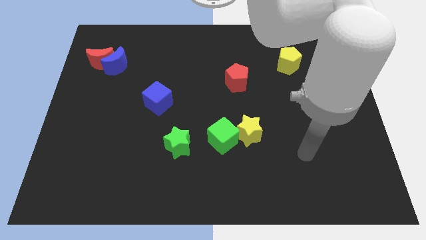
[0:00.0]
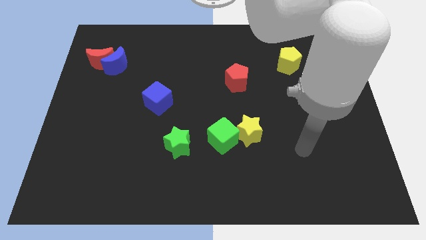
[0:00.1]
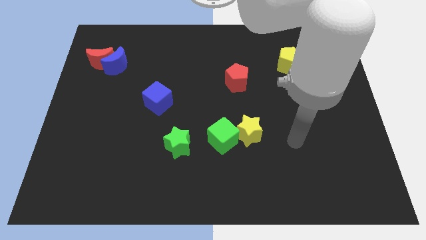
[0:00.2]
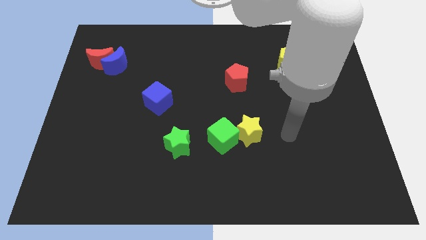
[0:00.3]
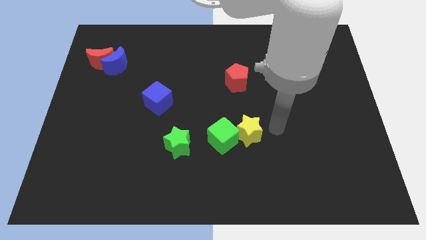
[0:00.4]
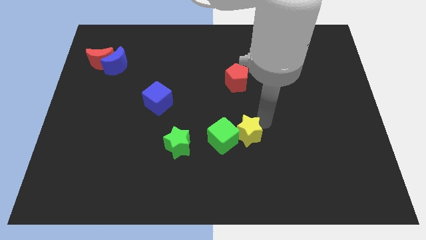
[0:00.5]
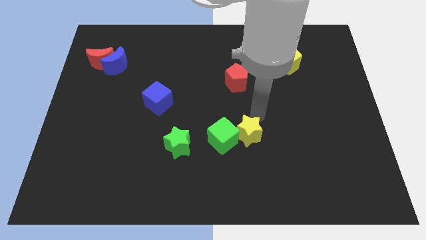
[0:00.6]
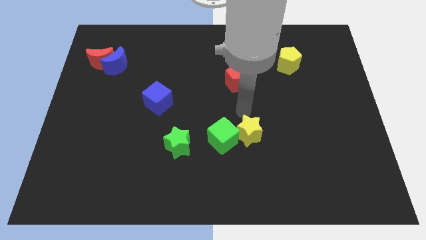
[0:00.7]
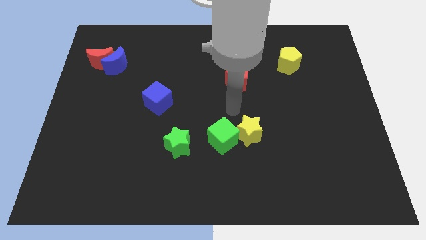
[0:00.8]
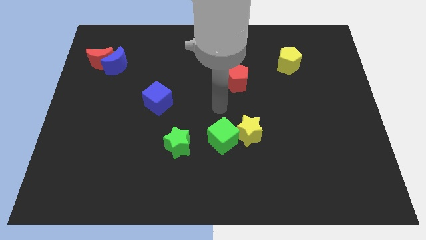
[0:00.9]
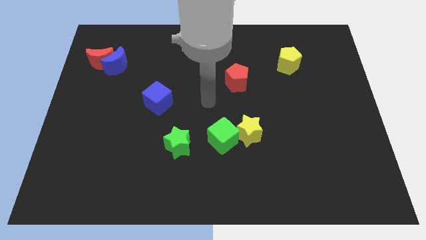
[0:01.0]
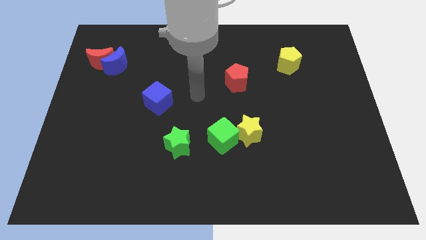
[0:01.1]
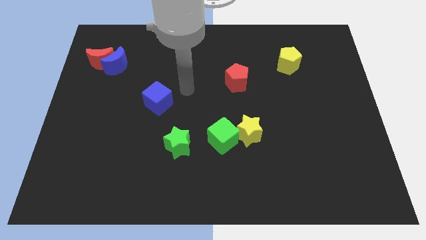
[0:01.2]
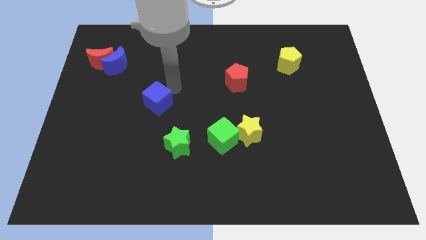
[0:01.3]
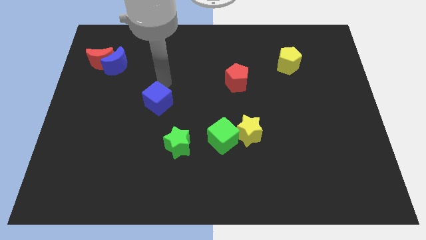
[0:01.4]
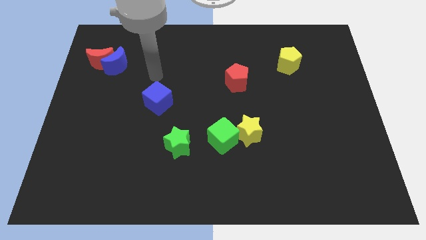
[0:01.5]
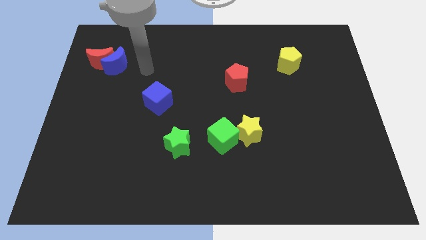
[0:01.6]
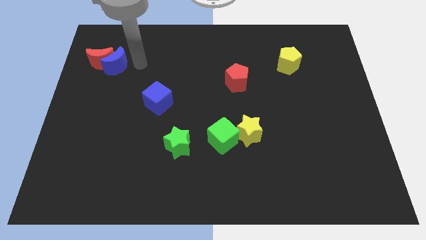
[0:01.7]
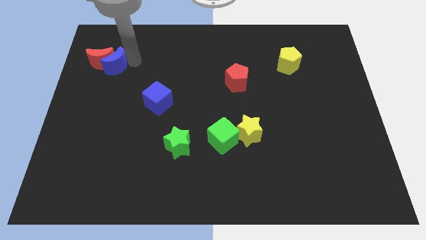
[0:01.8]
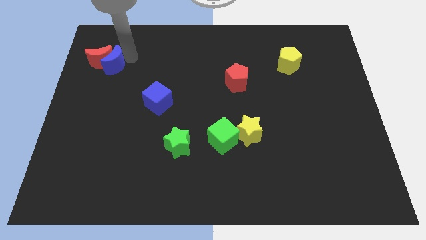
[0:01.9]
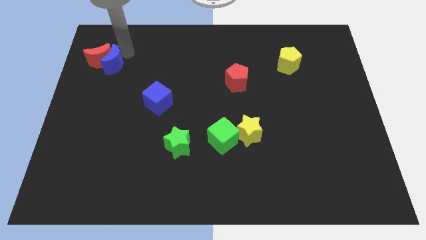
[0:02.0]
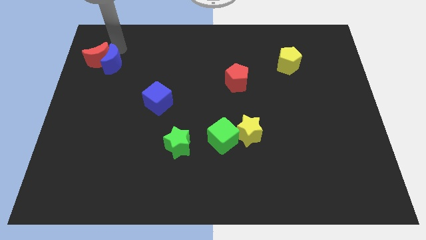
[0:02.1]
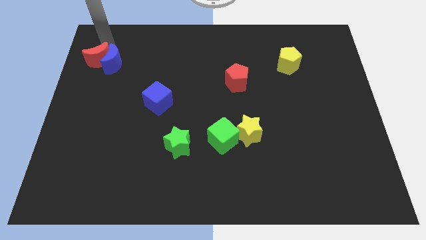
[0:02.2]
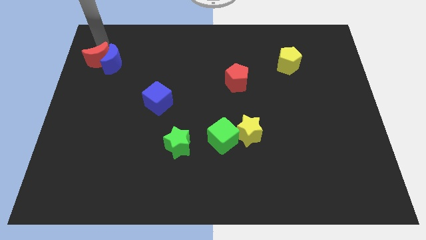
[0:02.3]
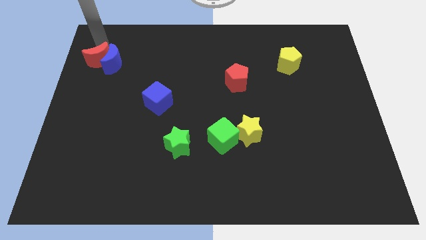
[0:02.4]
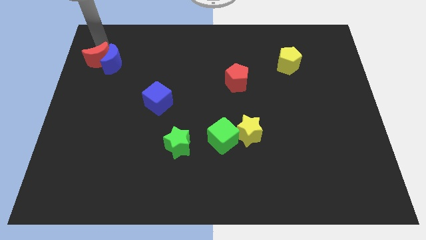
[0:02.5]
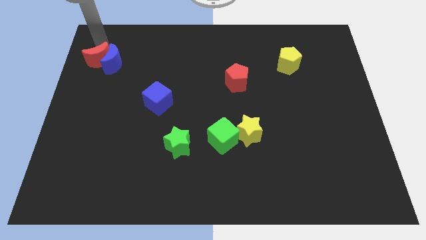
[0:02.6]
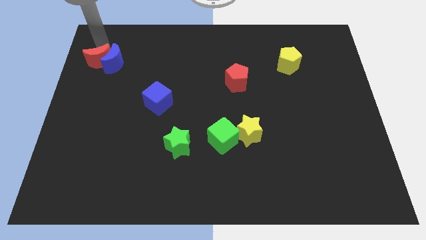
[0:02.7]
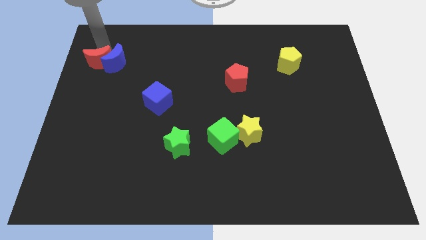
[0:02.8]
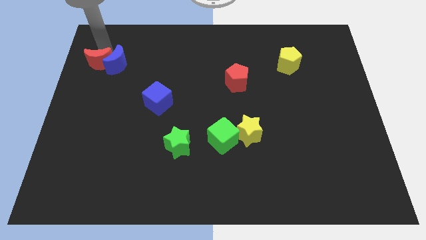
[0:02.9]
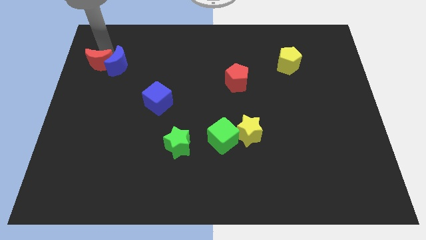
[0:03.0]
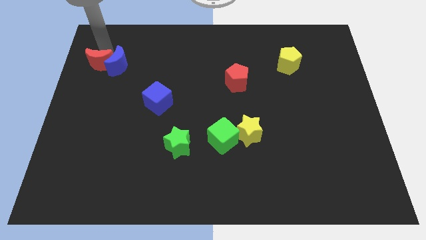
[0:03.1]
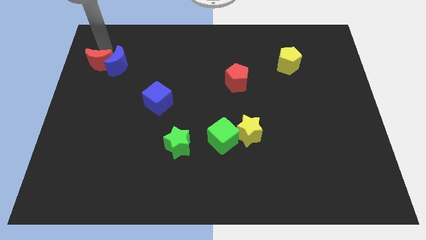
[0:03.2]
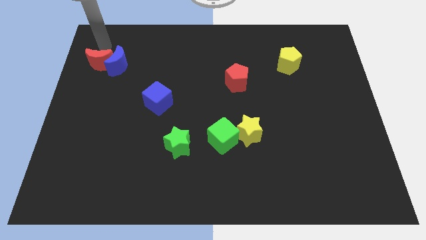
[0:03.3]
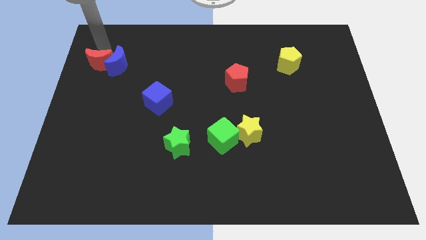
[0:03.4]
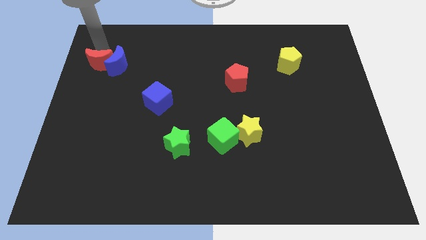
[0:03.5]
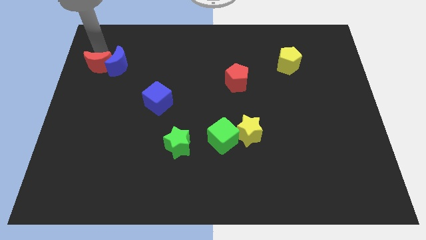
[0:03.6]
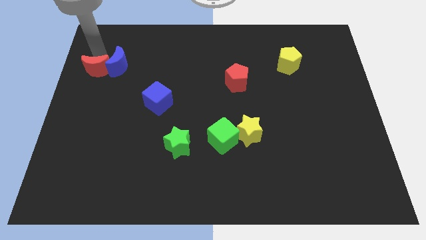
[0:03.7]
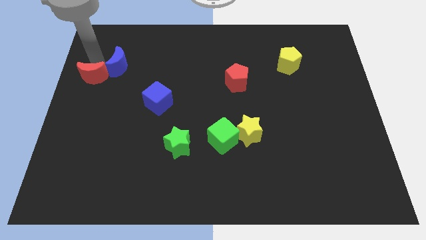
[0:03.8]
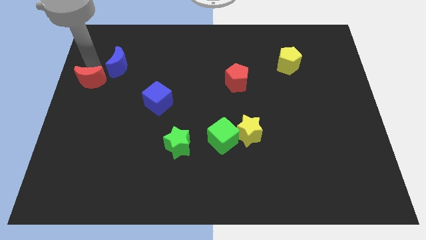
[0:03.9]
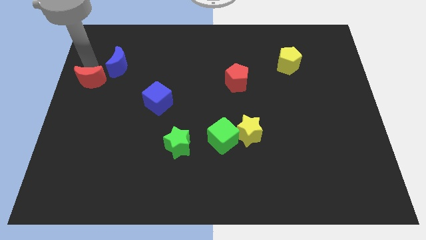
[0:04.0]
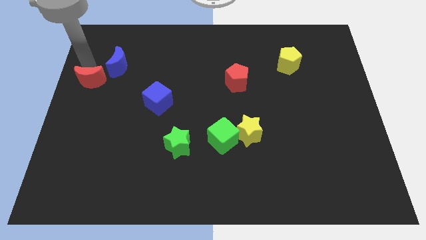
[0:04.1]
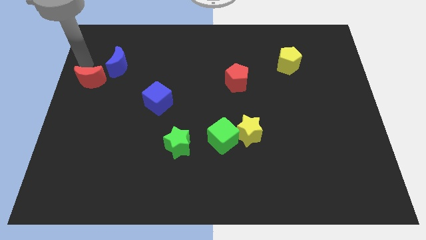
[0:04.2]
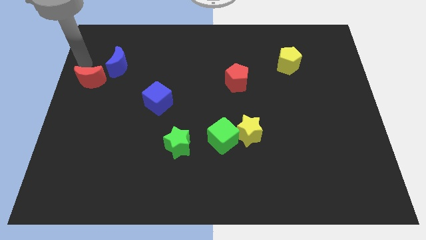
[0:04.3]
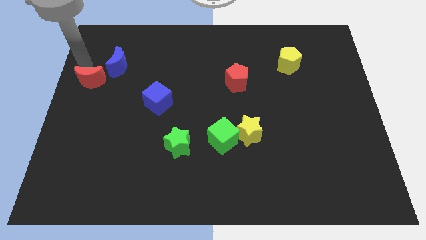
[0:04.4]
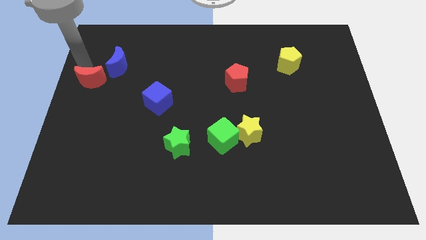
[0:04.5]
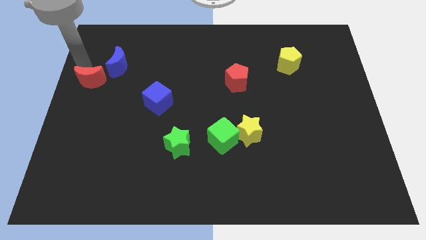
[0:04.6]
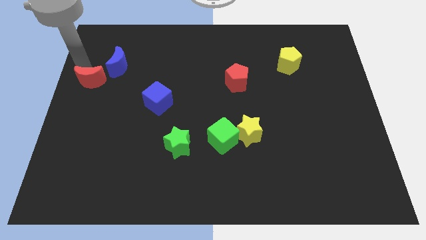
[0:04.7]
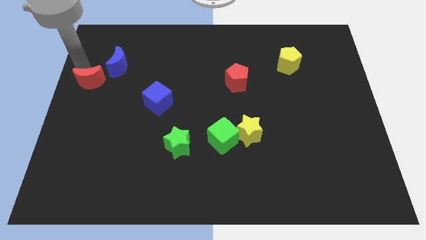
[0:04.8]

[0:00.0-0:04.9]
move the red moon slightly down

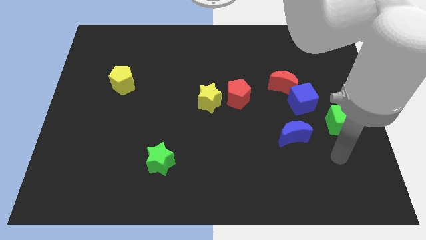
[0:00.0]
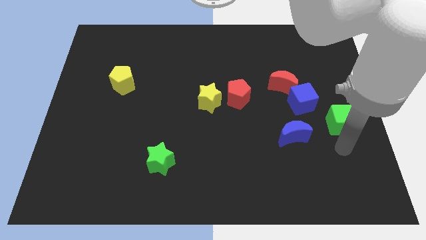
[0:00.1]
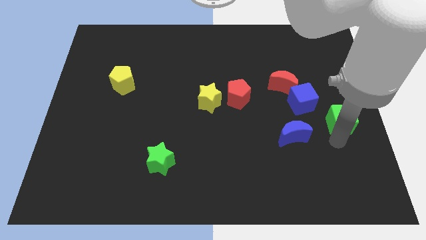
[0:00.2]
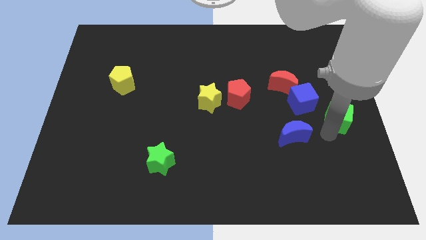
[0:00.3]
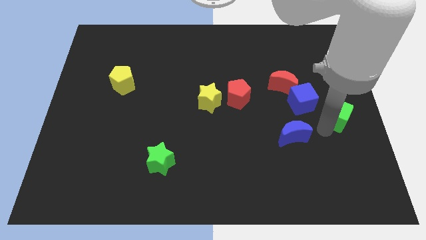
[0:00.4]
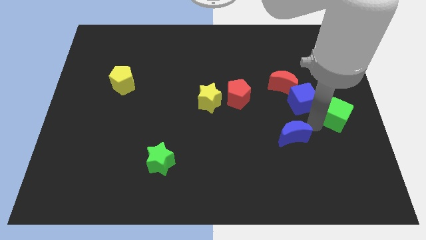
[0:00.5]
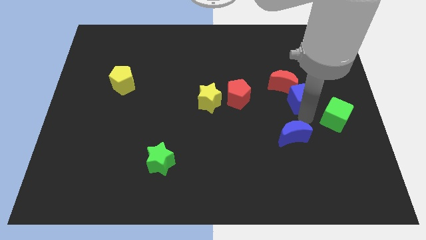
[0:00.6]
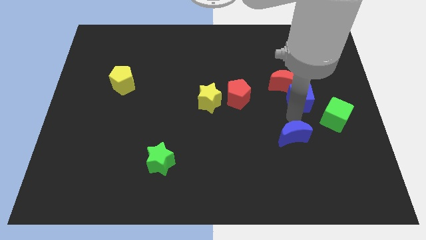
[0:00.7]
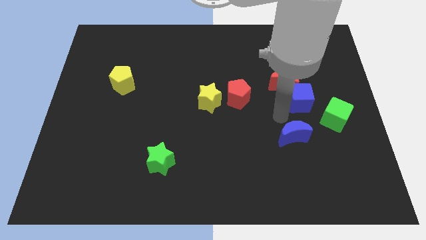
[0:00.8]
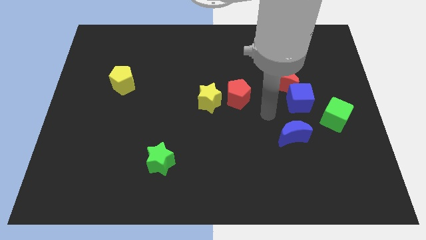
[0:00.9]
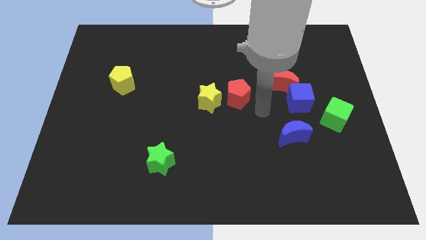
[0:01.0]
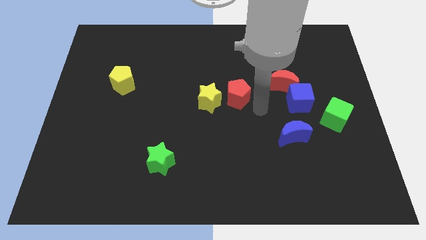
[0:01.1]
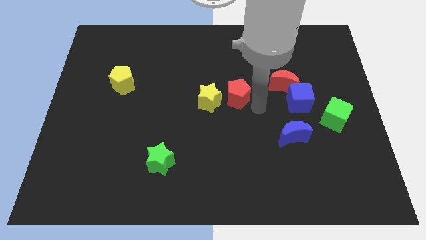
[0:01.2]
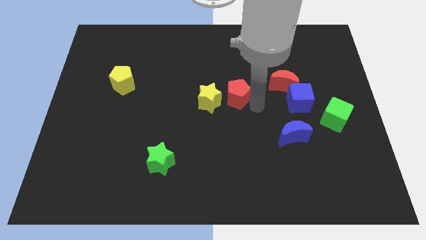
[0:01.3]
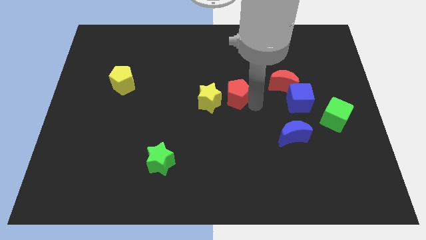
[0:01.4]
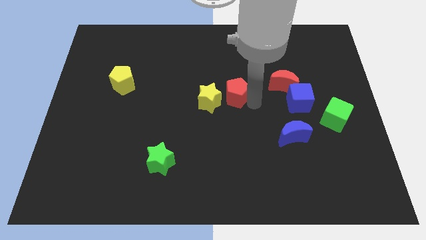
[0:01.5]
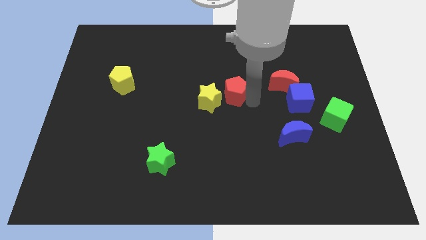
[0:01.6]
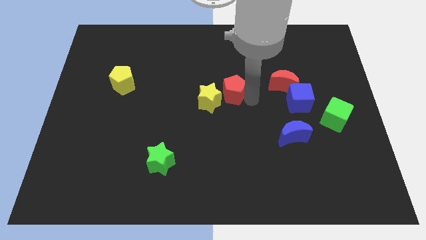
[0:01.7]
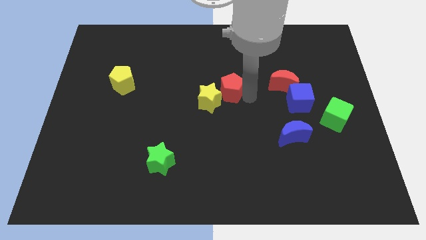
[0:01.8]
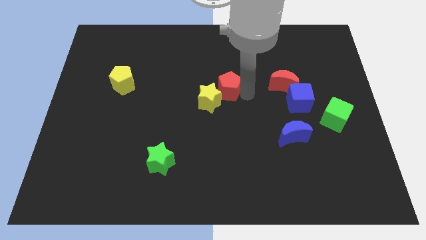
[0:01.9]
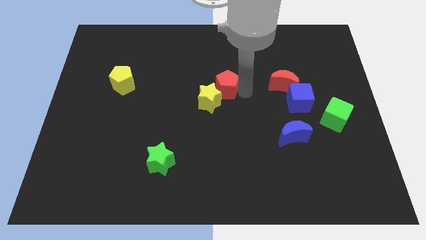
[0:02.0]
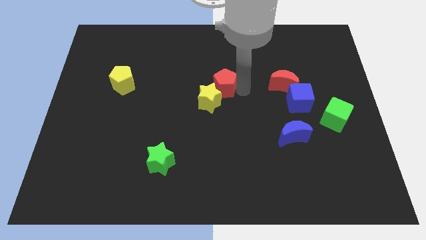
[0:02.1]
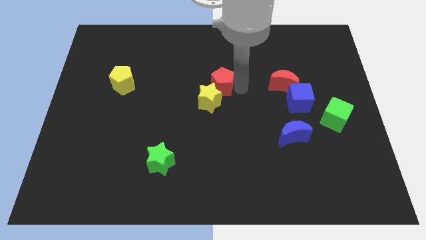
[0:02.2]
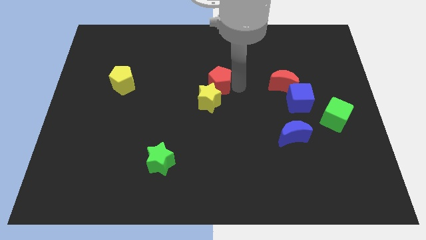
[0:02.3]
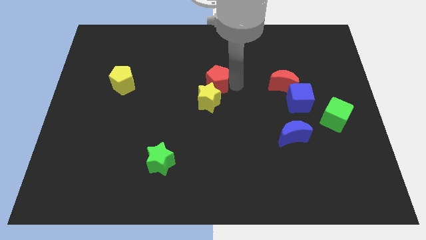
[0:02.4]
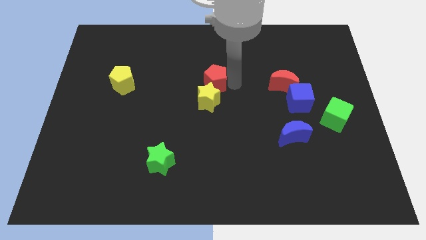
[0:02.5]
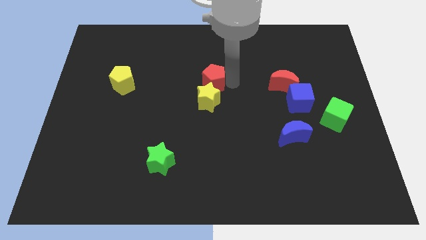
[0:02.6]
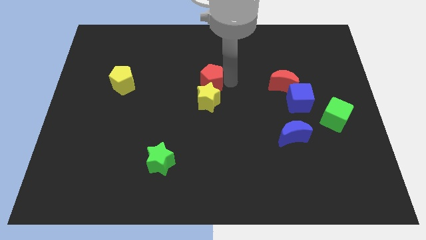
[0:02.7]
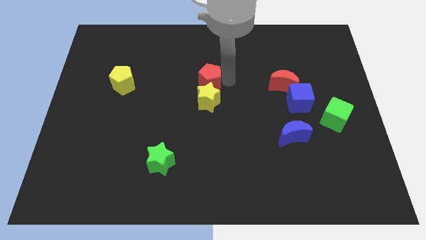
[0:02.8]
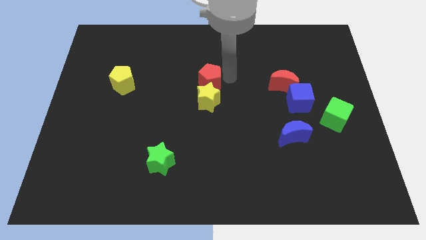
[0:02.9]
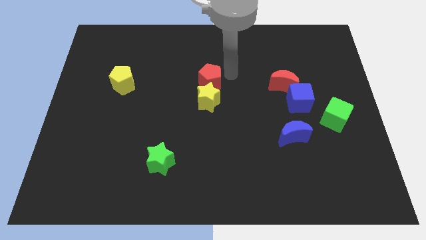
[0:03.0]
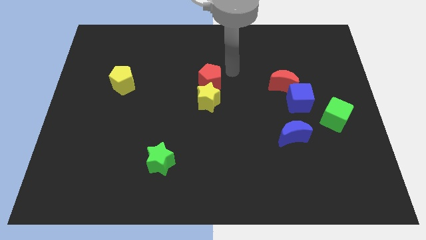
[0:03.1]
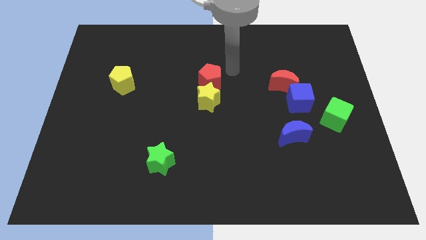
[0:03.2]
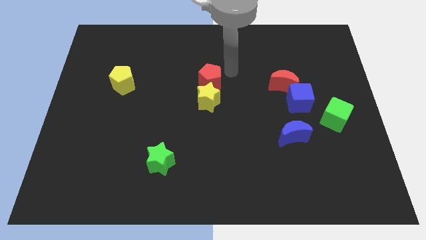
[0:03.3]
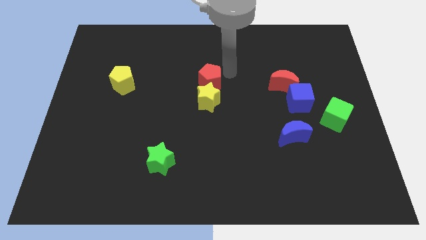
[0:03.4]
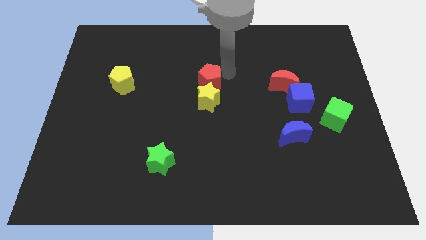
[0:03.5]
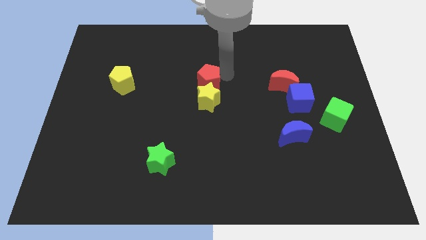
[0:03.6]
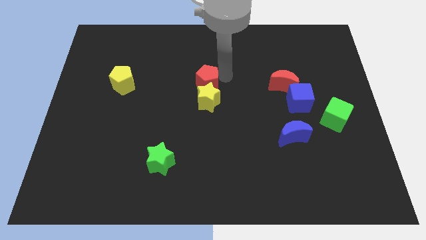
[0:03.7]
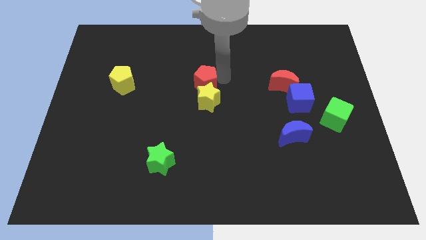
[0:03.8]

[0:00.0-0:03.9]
slightly move the red pentagon left
